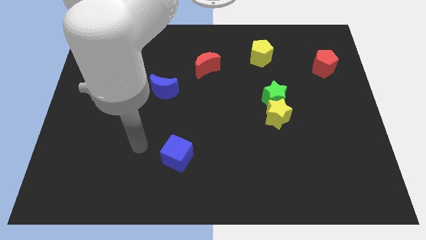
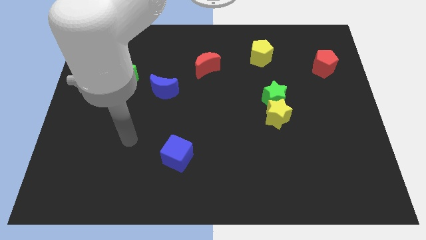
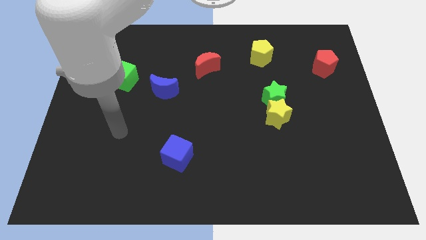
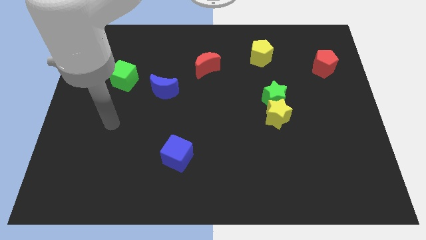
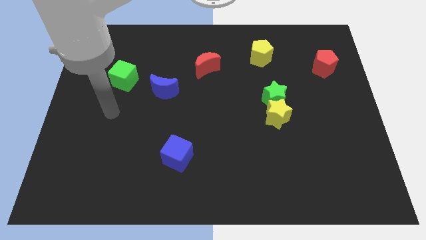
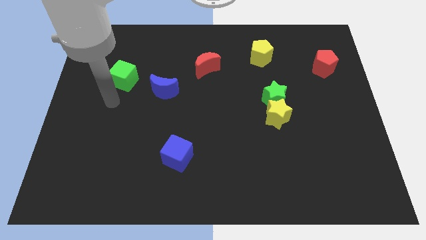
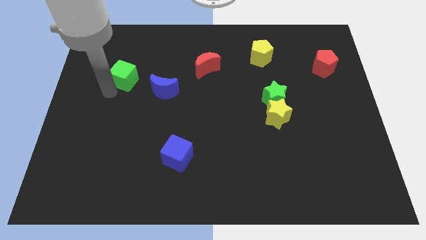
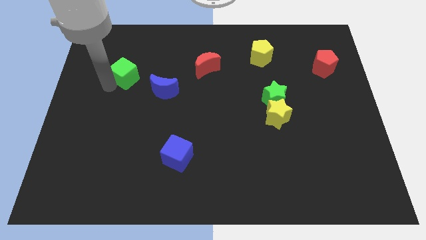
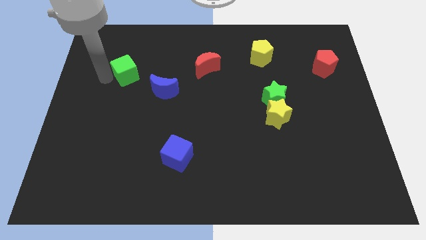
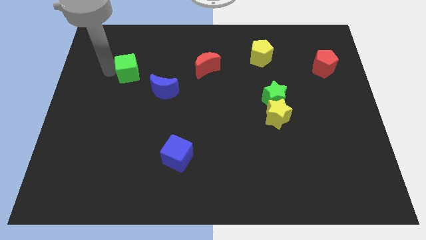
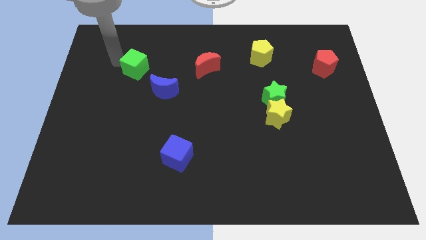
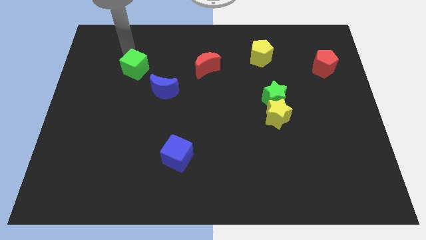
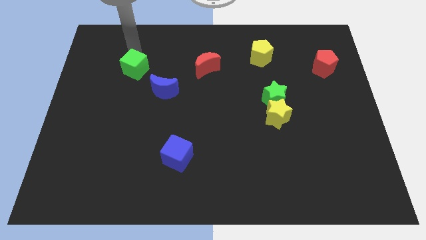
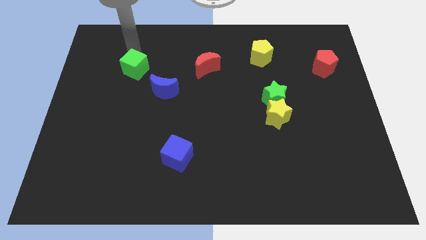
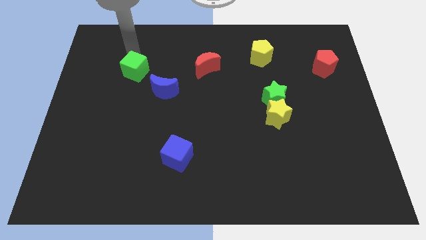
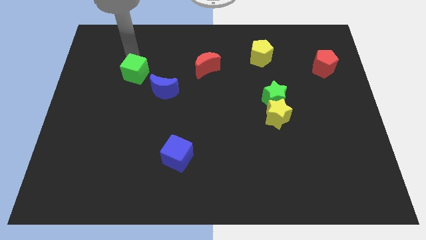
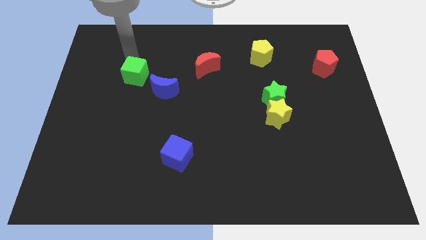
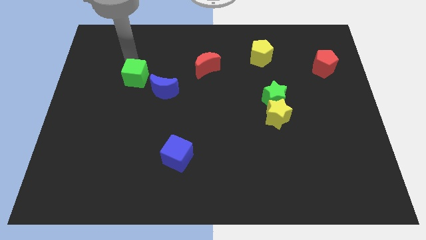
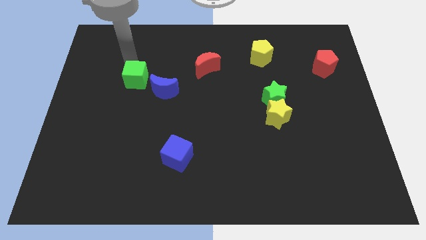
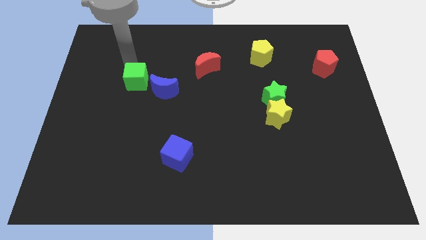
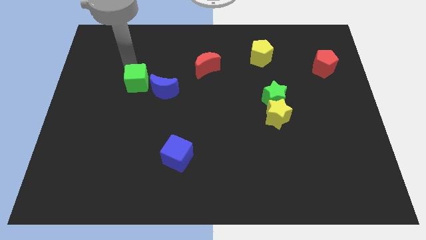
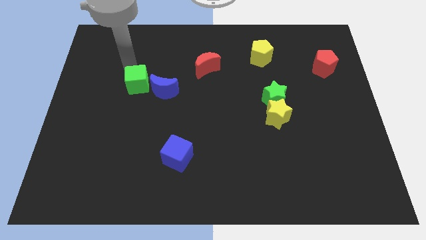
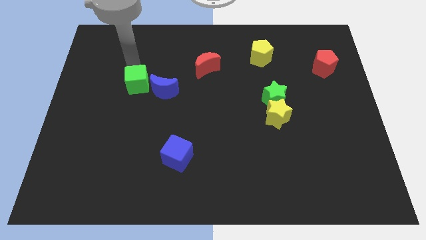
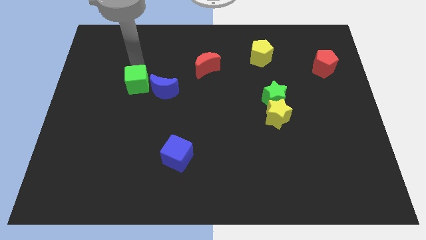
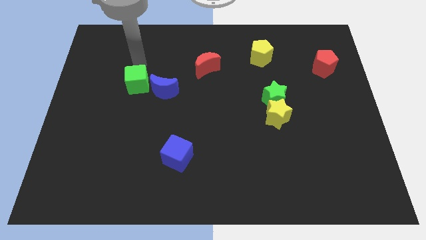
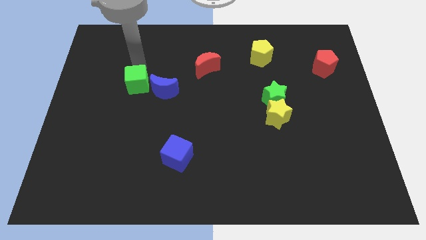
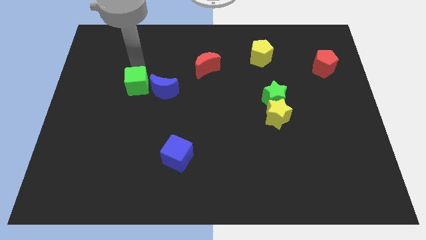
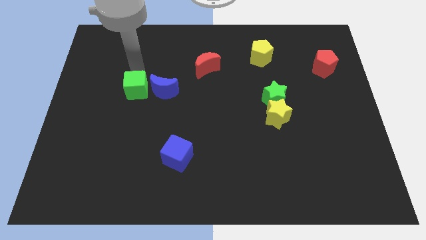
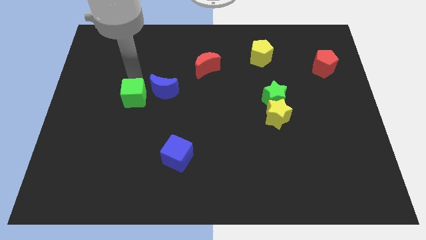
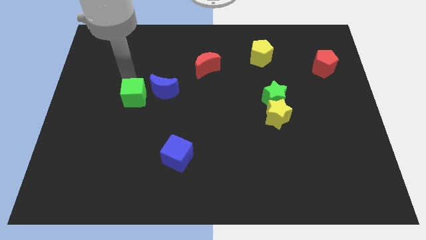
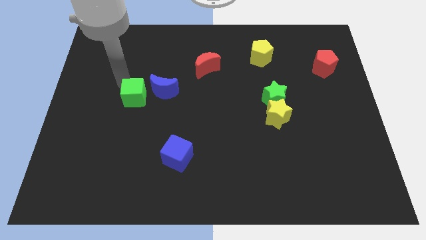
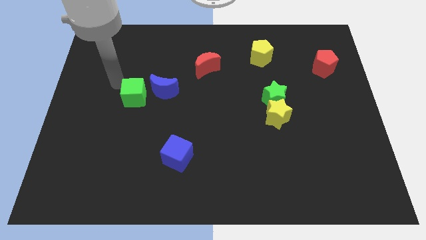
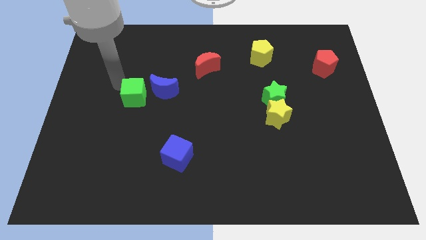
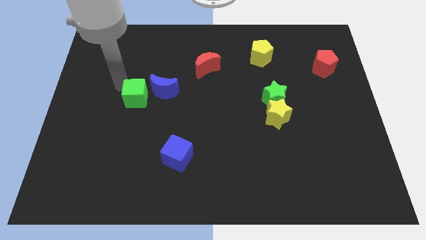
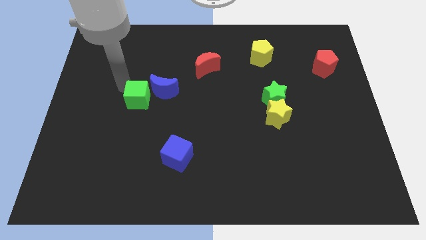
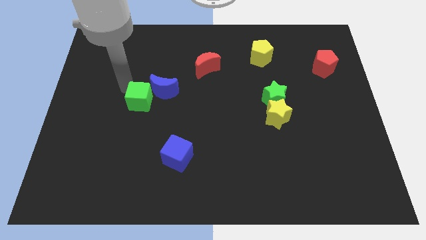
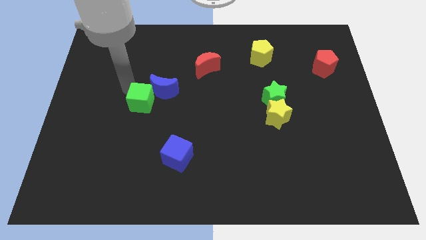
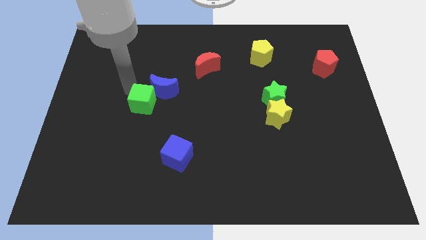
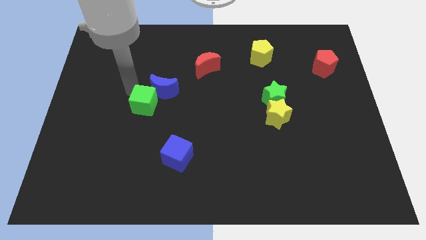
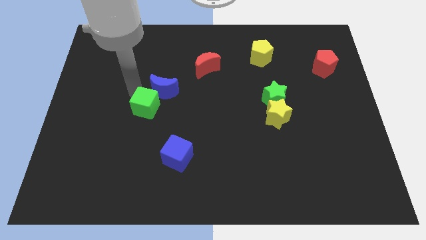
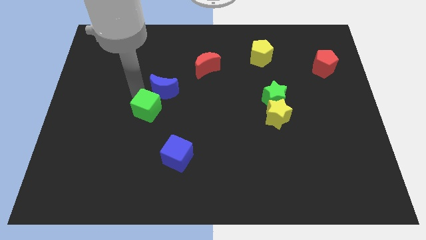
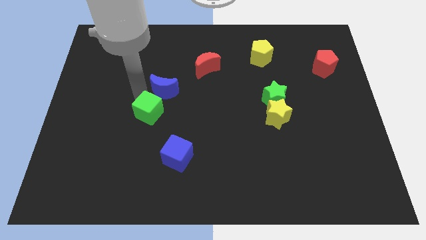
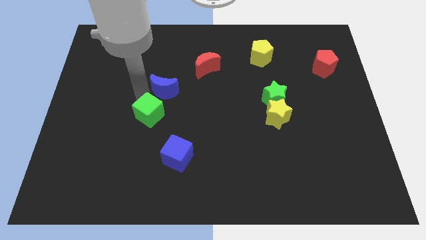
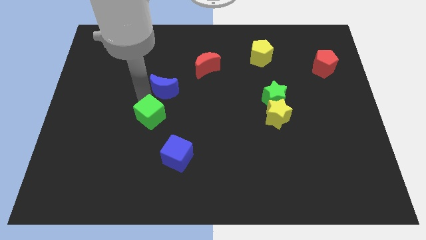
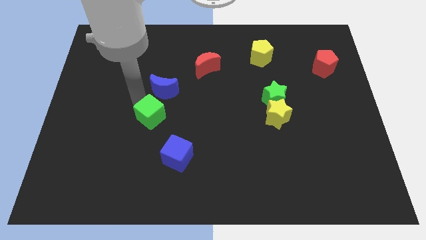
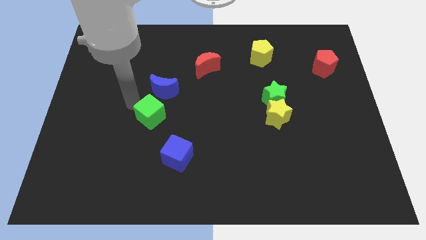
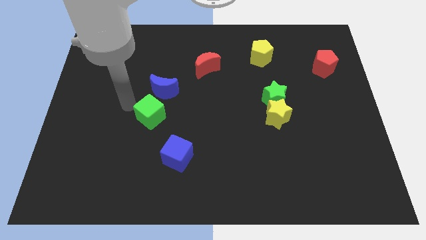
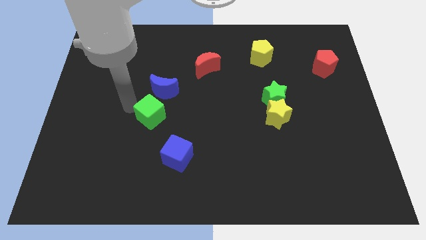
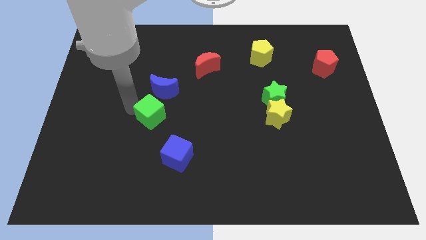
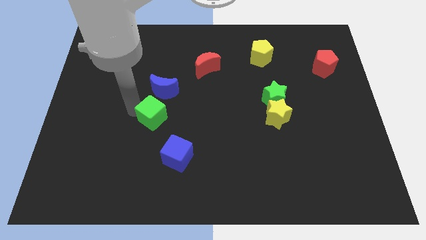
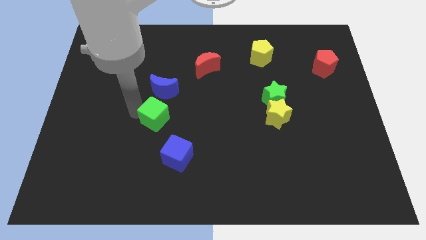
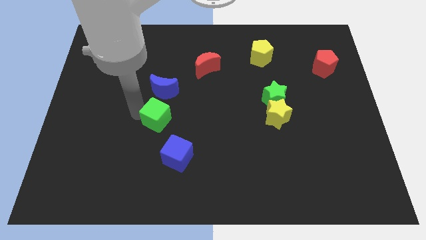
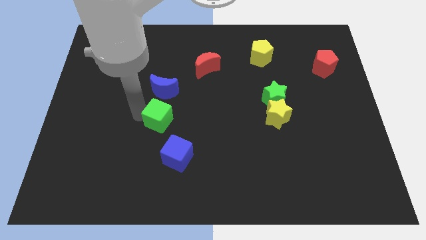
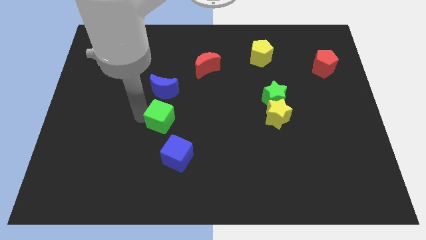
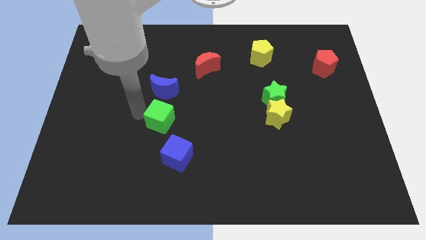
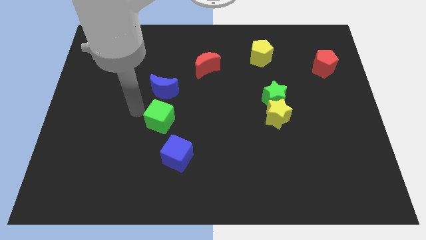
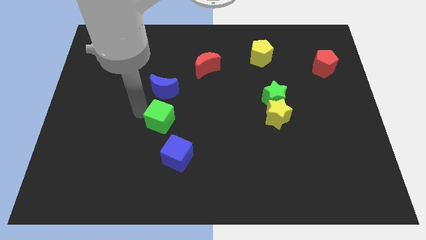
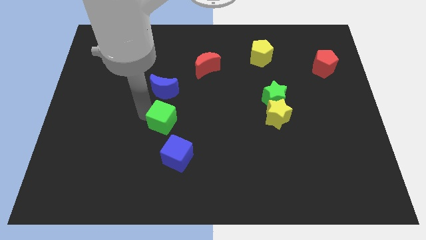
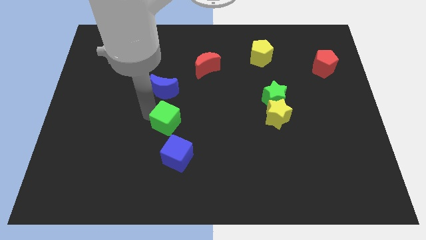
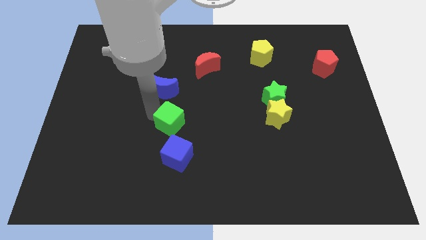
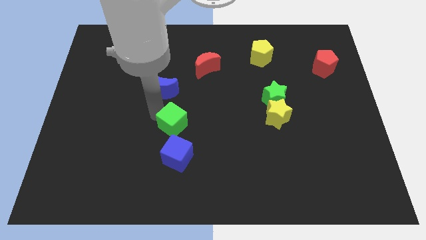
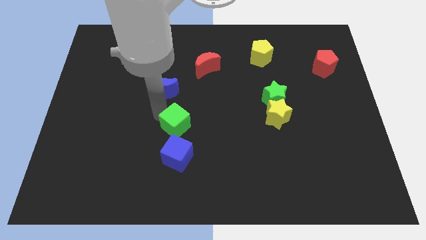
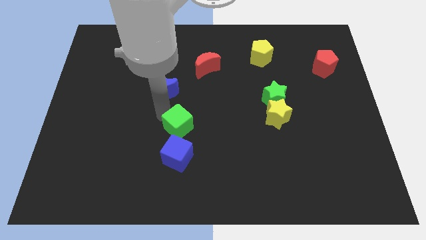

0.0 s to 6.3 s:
push the green cube down and right diagonally

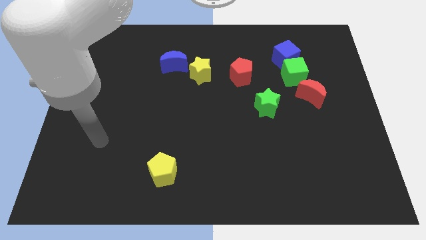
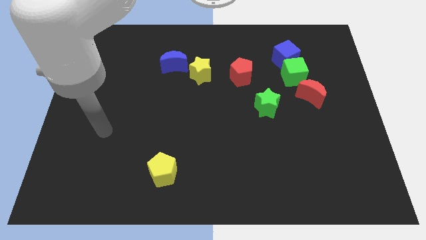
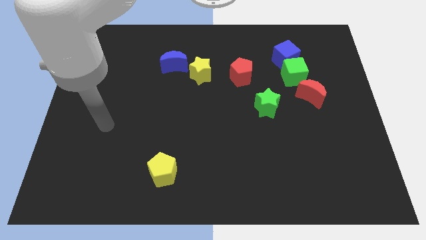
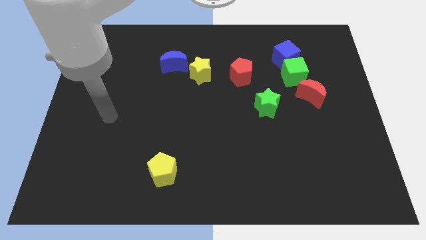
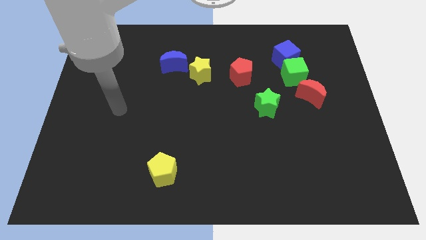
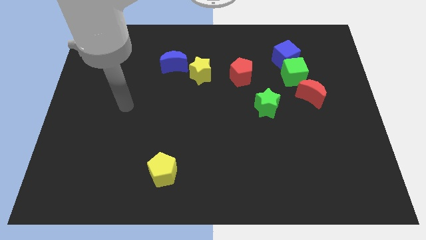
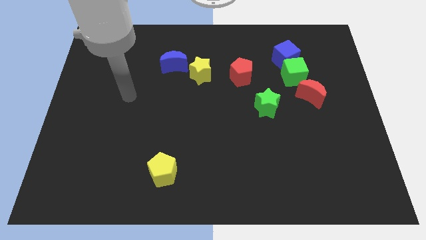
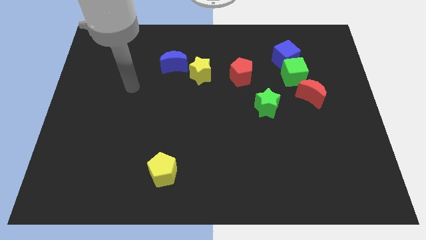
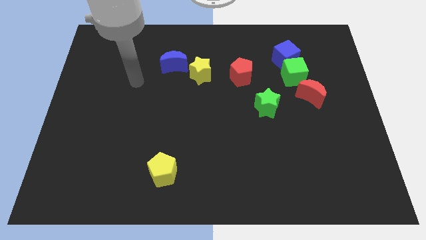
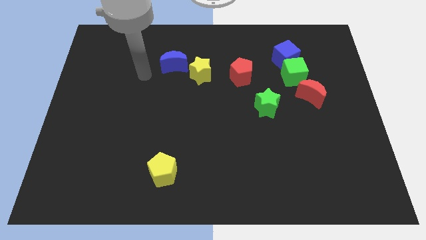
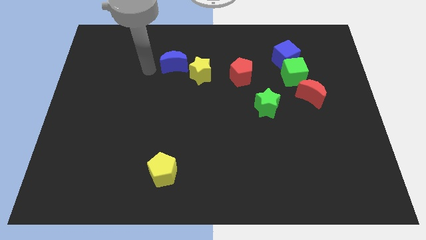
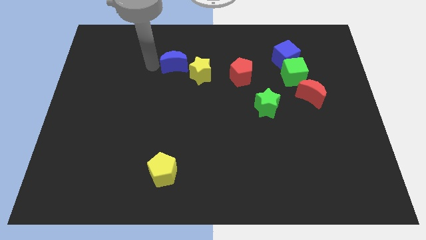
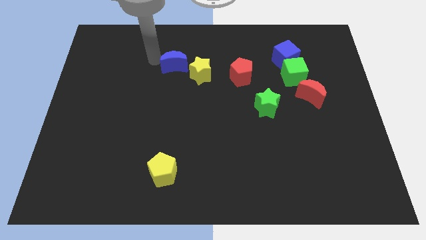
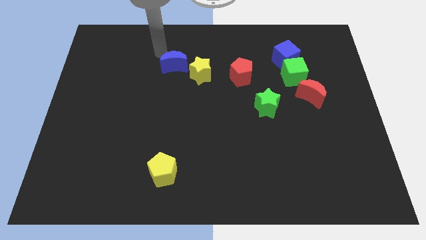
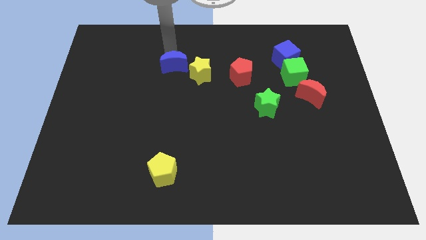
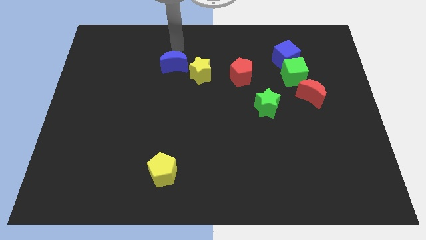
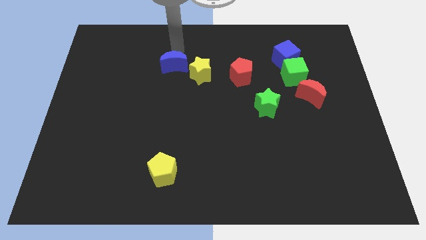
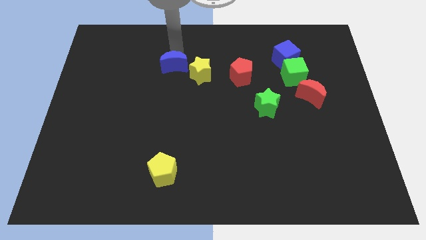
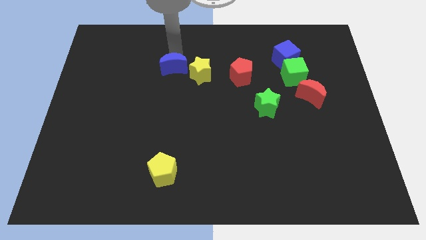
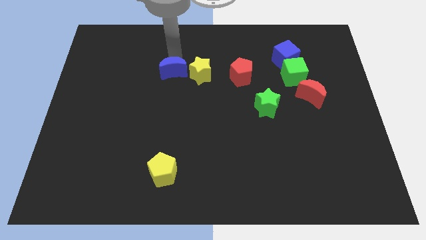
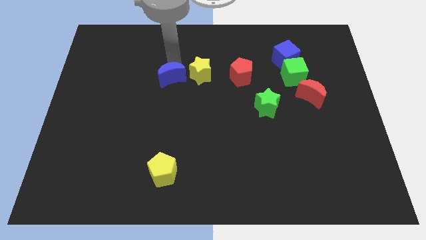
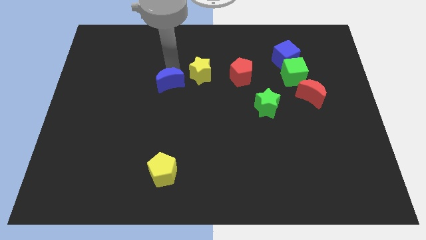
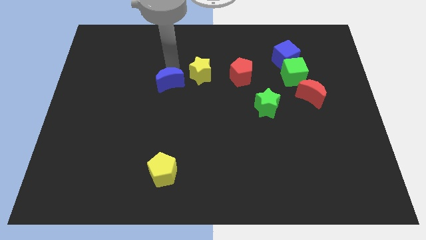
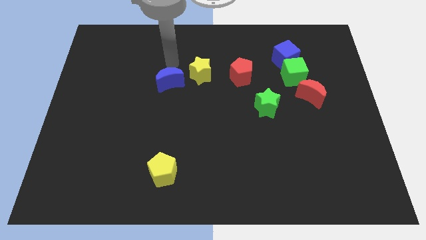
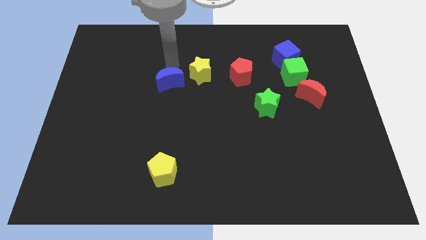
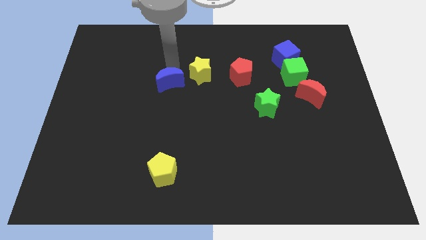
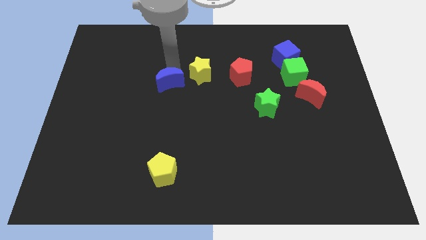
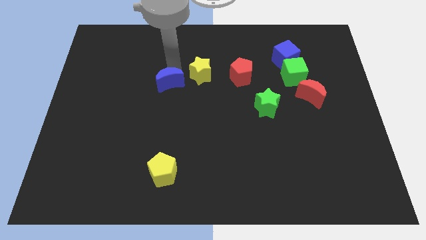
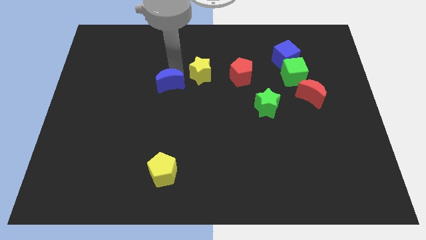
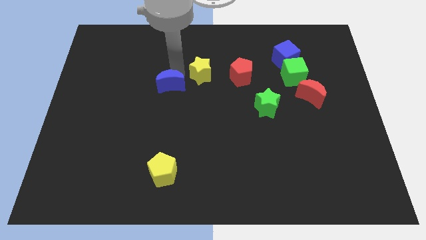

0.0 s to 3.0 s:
move the blue moon a little bit down
